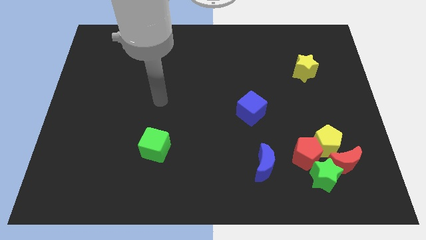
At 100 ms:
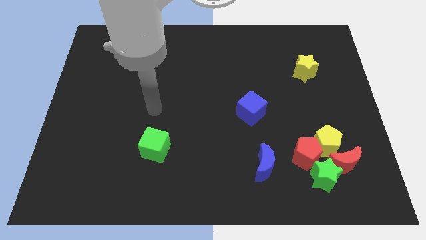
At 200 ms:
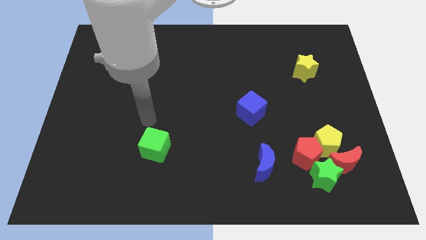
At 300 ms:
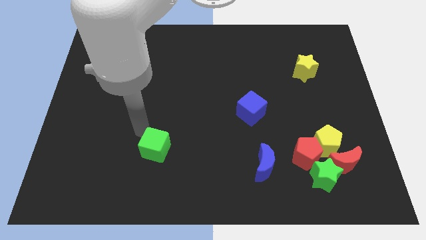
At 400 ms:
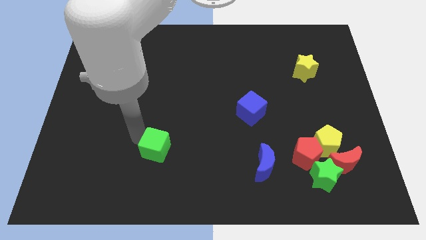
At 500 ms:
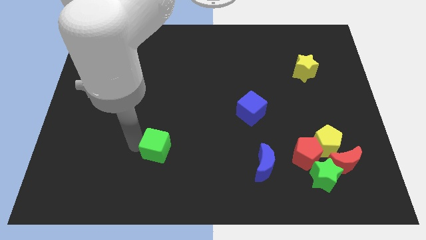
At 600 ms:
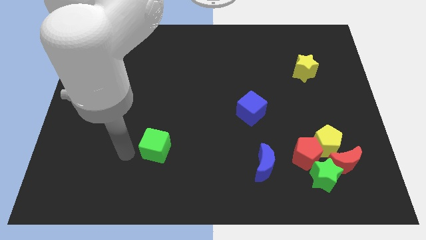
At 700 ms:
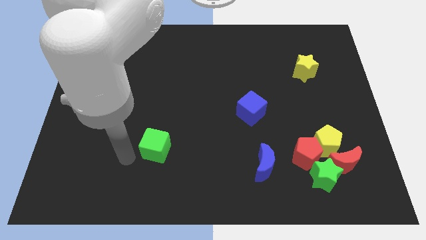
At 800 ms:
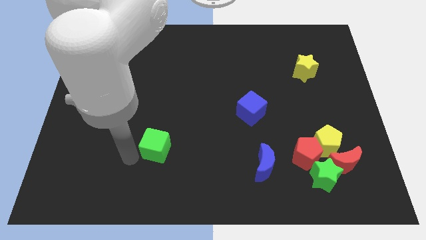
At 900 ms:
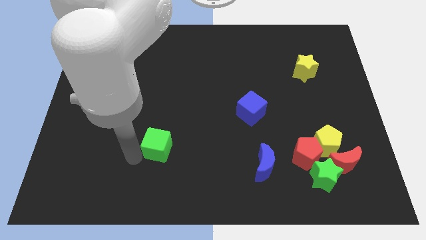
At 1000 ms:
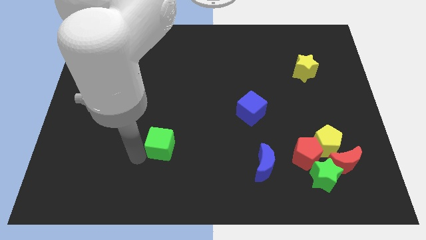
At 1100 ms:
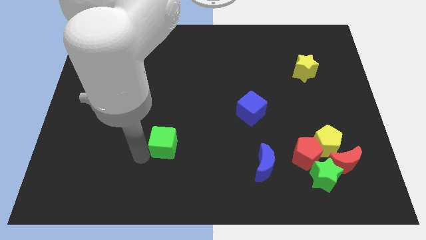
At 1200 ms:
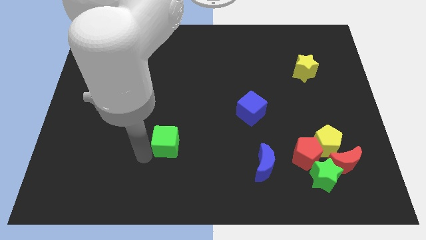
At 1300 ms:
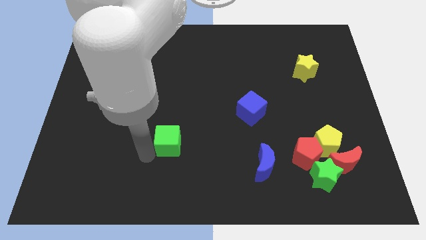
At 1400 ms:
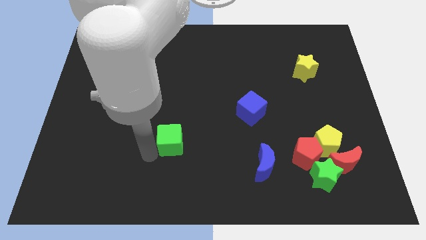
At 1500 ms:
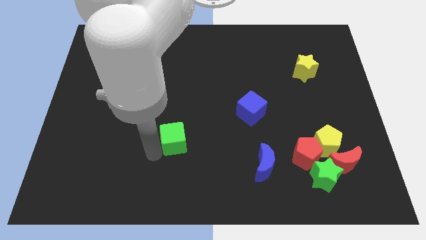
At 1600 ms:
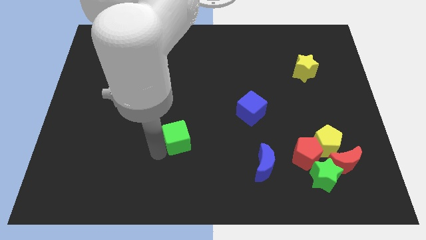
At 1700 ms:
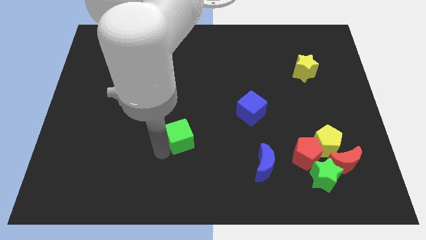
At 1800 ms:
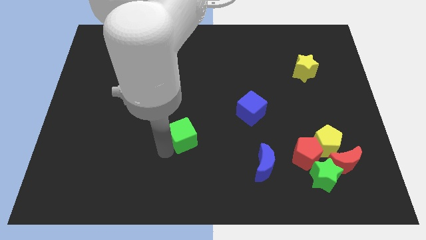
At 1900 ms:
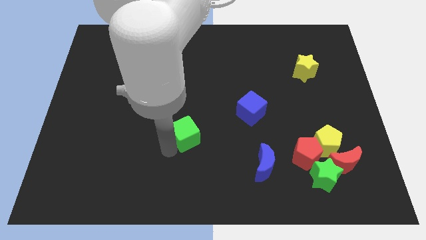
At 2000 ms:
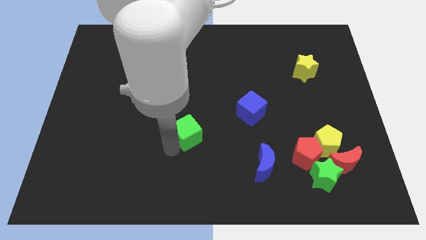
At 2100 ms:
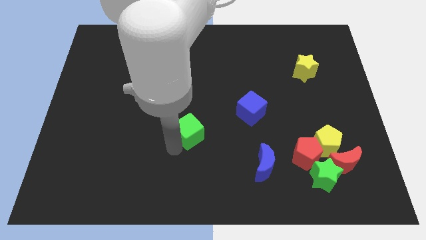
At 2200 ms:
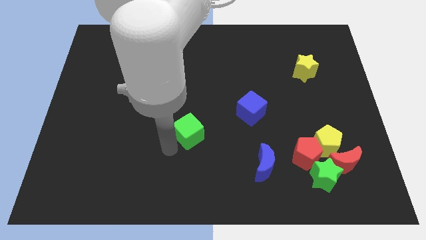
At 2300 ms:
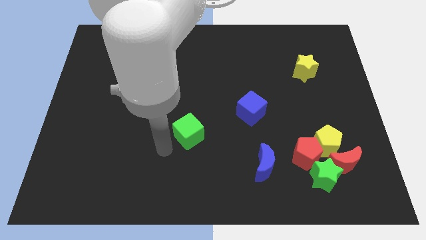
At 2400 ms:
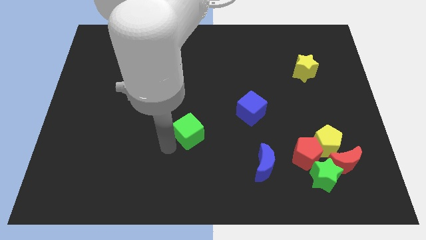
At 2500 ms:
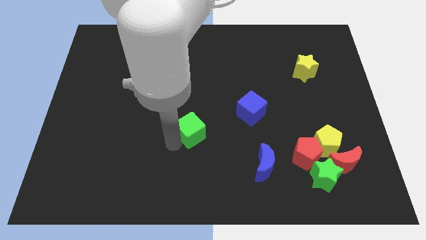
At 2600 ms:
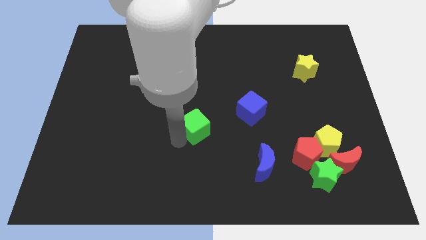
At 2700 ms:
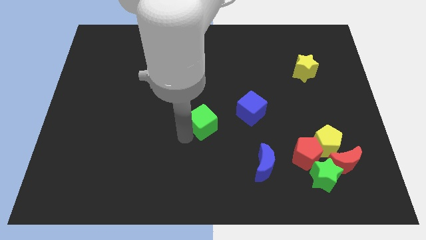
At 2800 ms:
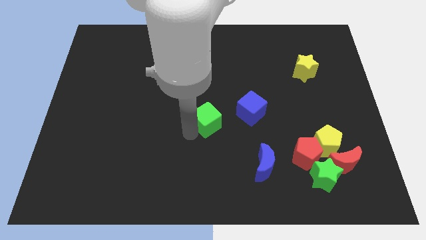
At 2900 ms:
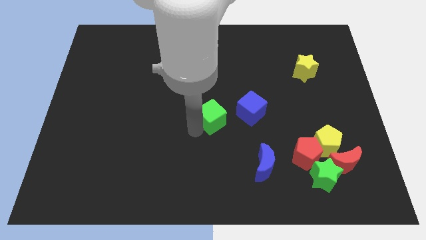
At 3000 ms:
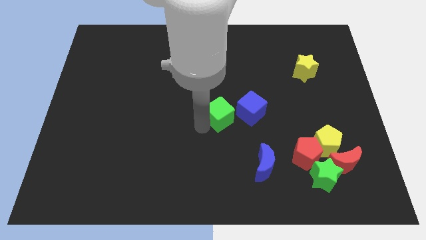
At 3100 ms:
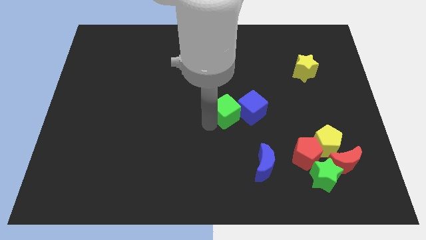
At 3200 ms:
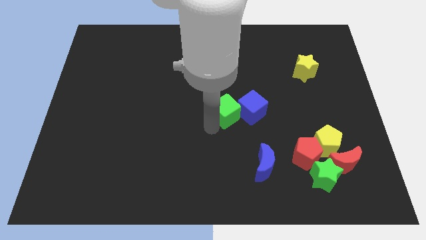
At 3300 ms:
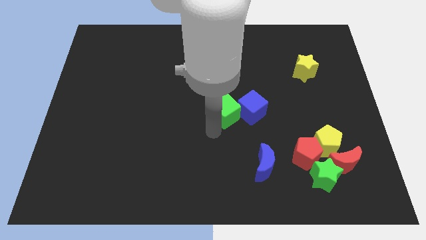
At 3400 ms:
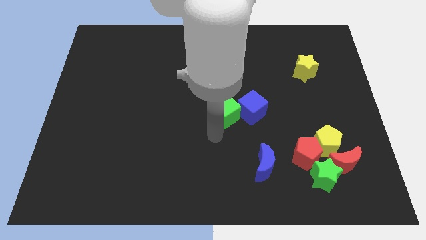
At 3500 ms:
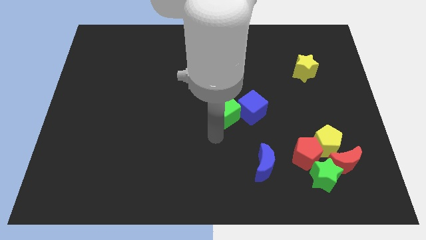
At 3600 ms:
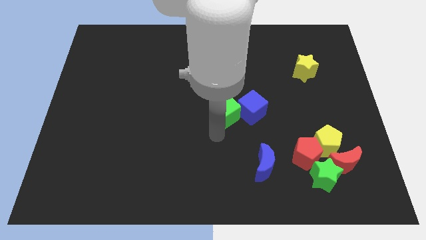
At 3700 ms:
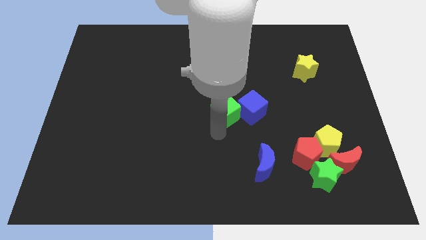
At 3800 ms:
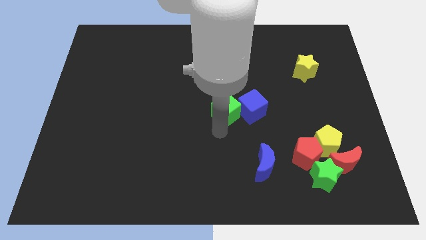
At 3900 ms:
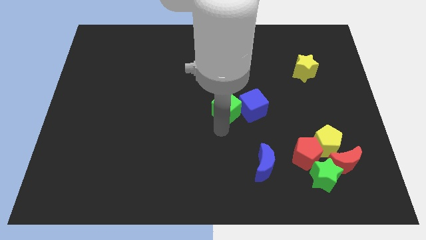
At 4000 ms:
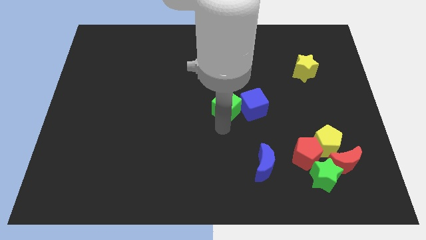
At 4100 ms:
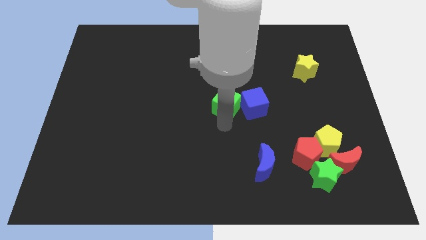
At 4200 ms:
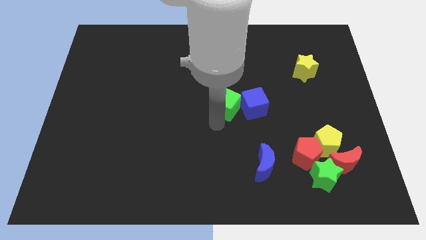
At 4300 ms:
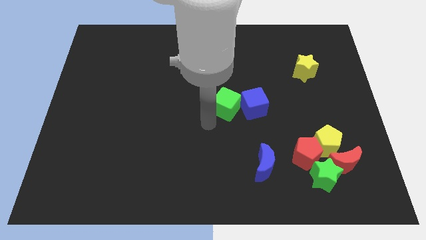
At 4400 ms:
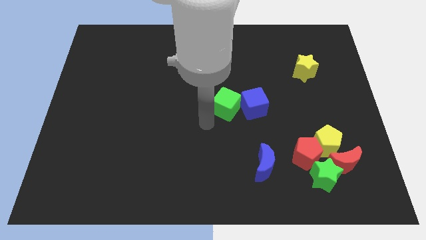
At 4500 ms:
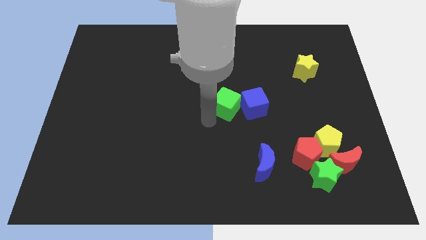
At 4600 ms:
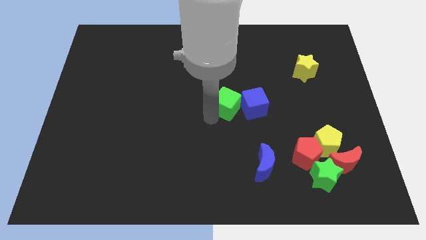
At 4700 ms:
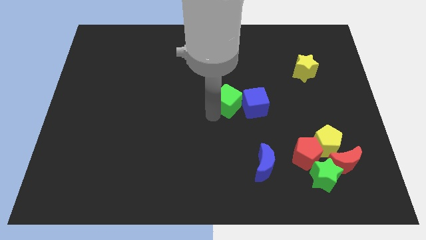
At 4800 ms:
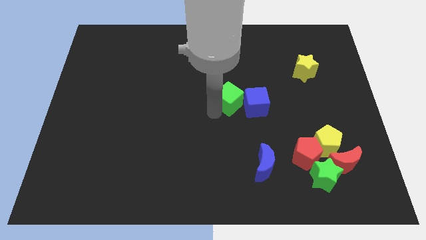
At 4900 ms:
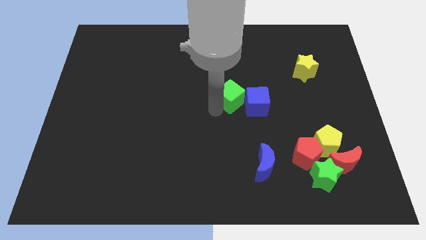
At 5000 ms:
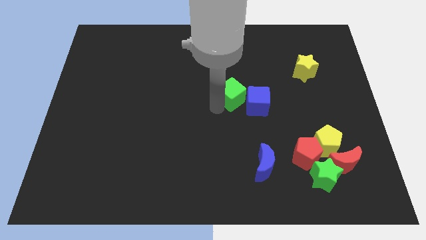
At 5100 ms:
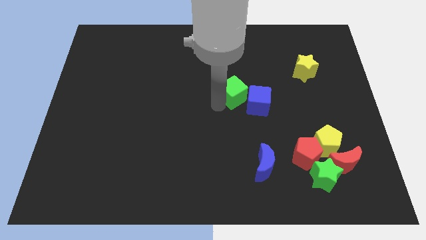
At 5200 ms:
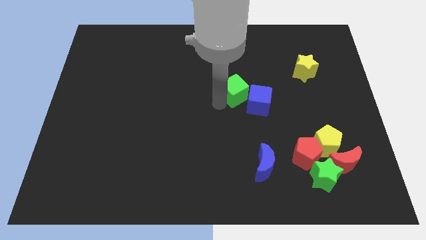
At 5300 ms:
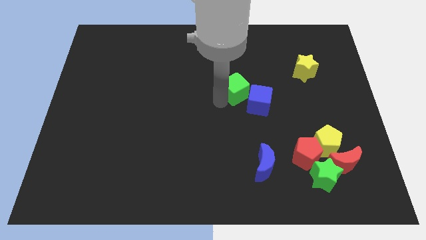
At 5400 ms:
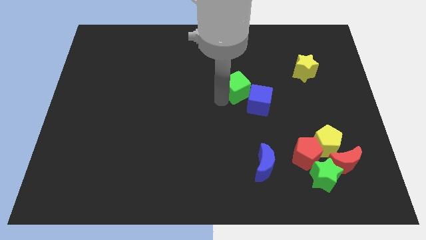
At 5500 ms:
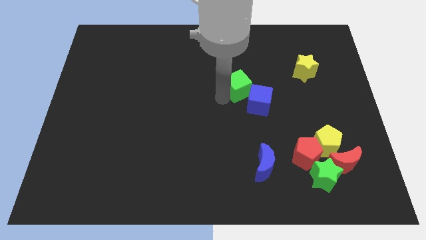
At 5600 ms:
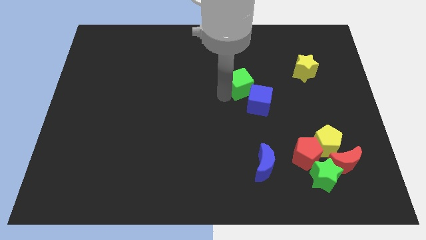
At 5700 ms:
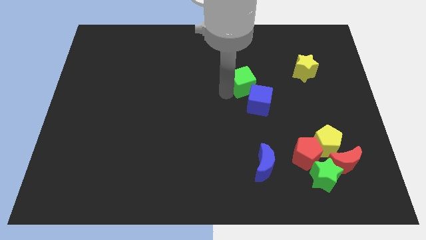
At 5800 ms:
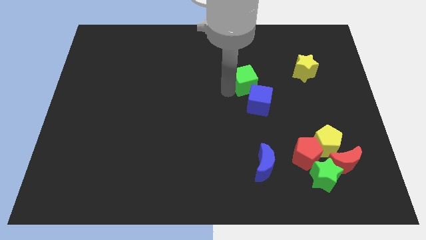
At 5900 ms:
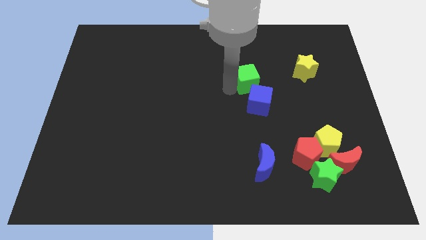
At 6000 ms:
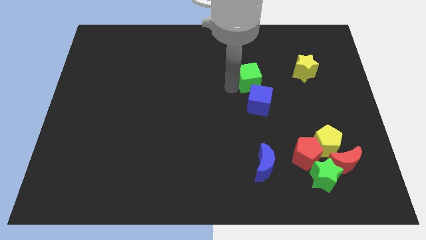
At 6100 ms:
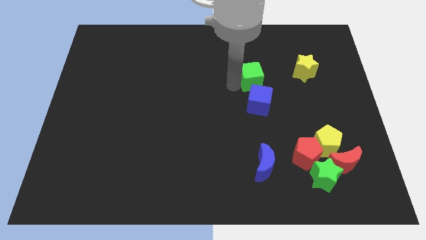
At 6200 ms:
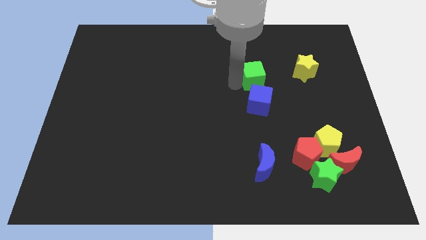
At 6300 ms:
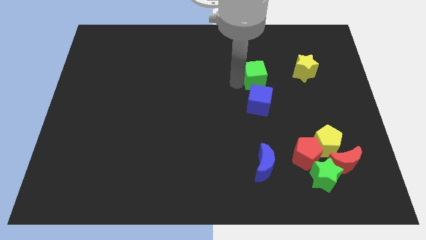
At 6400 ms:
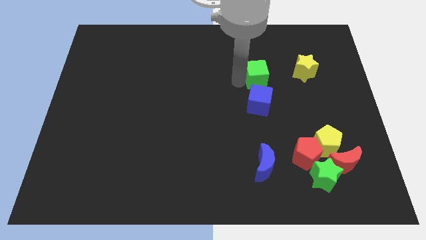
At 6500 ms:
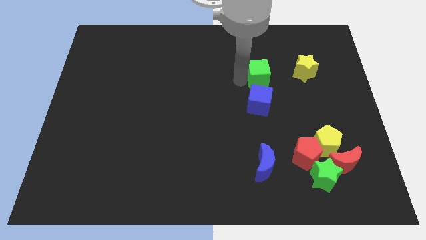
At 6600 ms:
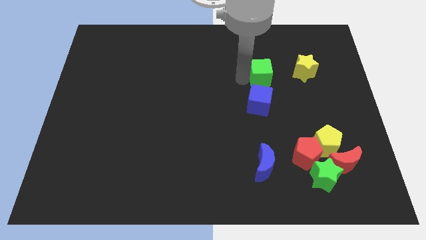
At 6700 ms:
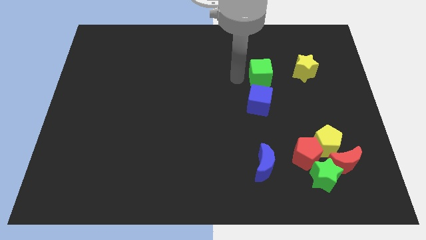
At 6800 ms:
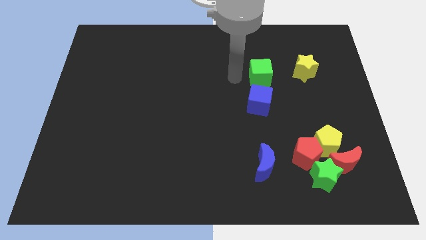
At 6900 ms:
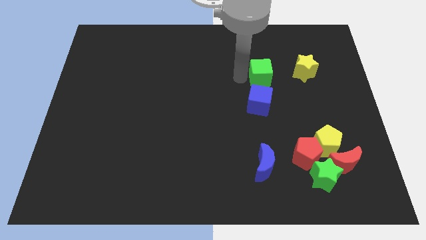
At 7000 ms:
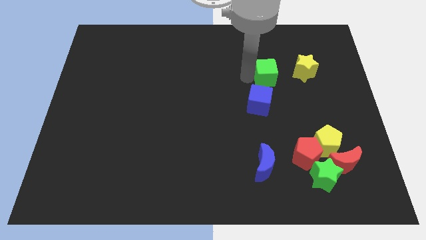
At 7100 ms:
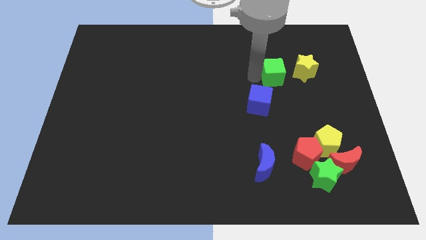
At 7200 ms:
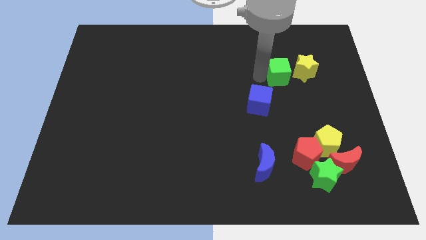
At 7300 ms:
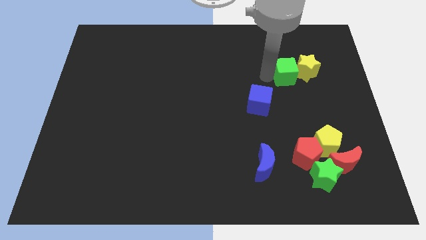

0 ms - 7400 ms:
put the green cube next to the yellow star
